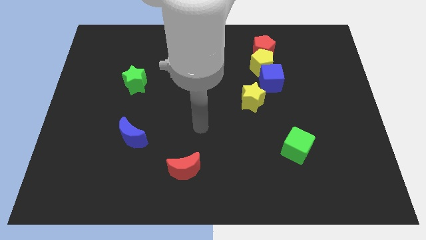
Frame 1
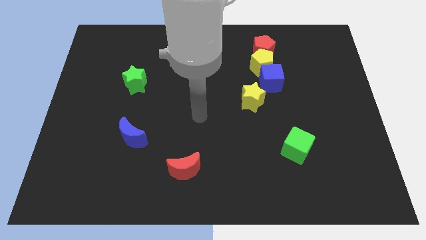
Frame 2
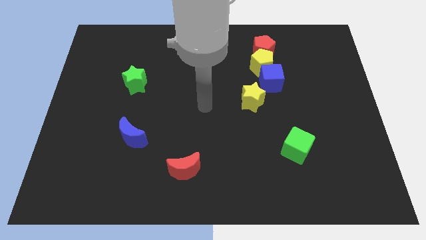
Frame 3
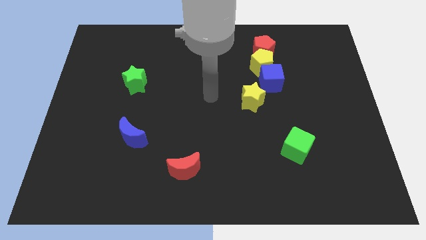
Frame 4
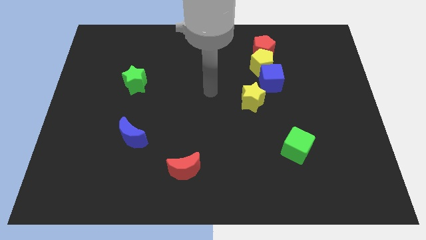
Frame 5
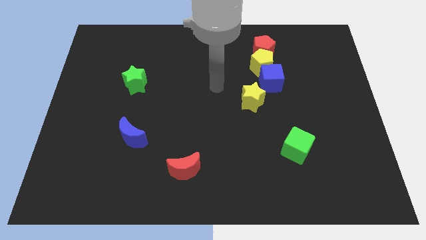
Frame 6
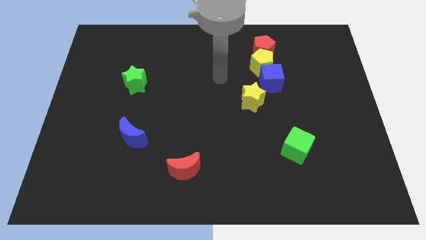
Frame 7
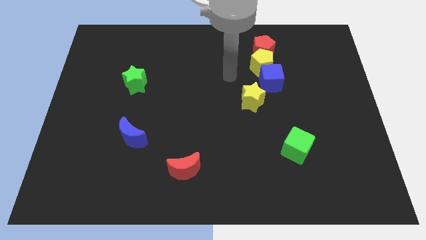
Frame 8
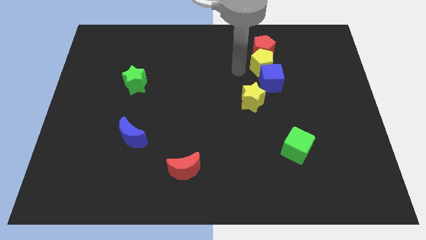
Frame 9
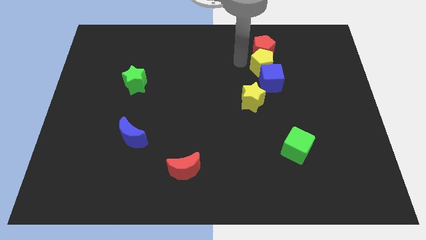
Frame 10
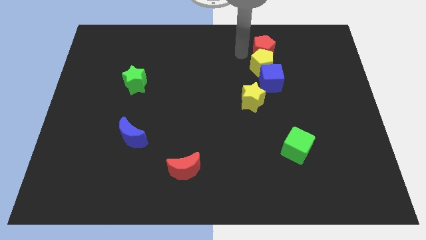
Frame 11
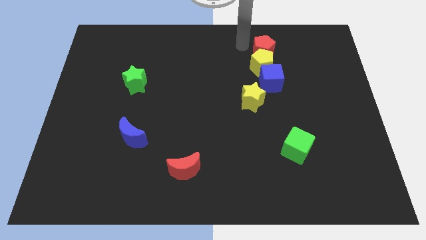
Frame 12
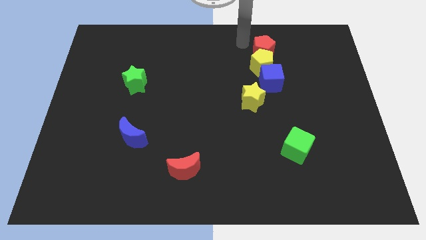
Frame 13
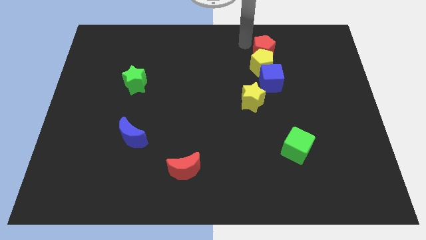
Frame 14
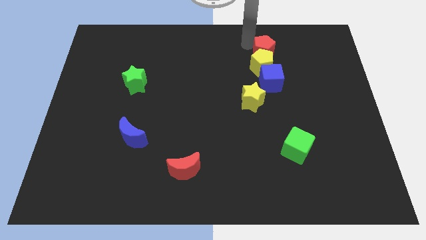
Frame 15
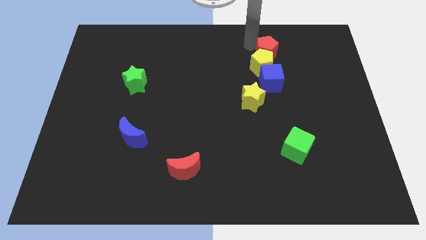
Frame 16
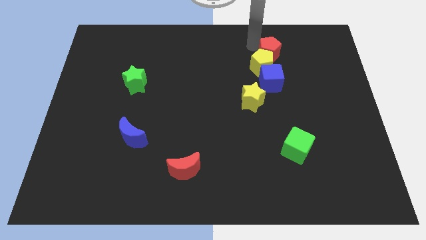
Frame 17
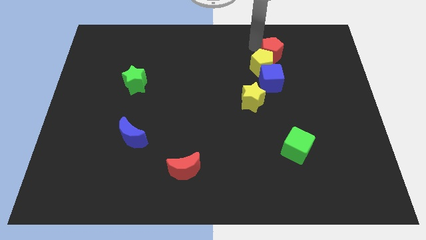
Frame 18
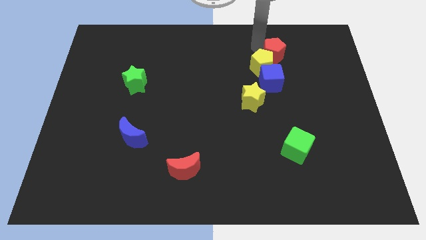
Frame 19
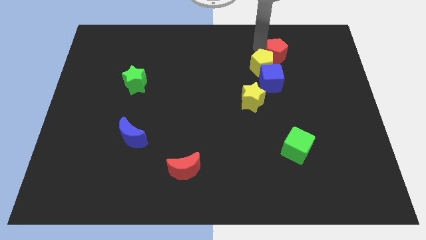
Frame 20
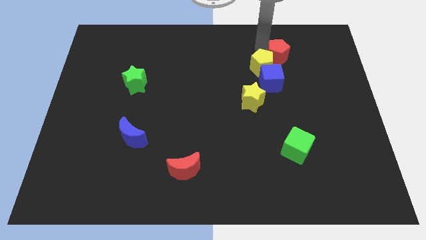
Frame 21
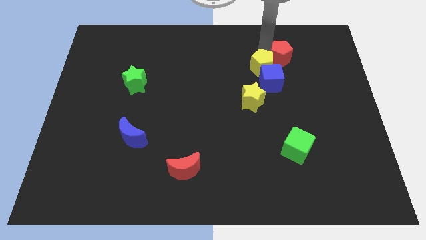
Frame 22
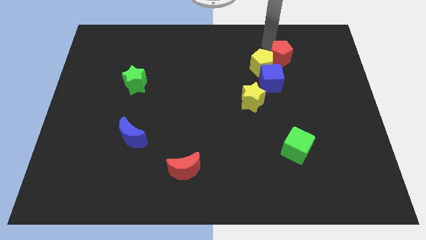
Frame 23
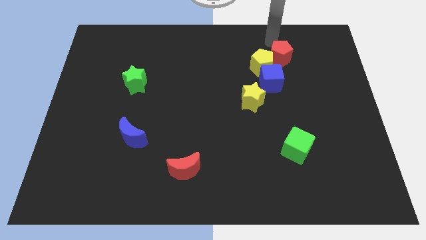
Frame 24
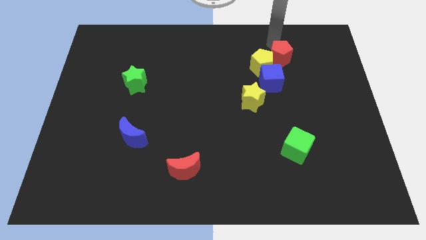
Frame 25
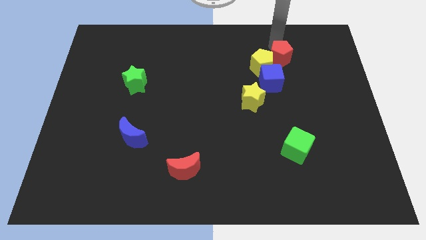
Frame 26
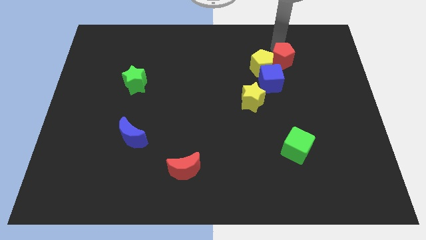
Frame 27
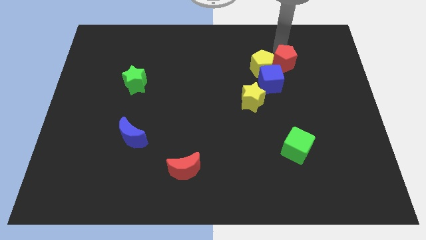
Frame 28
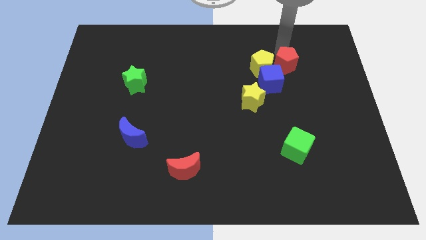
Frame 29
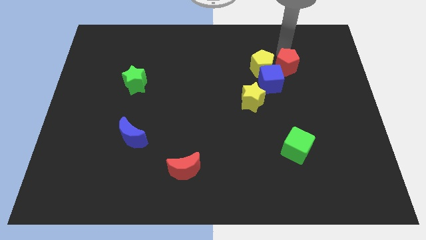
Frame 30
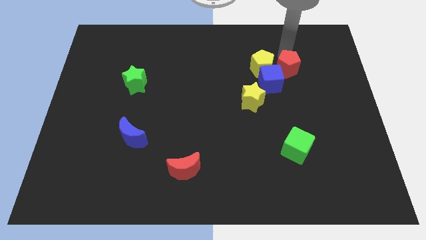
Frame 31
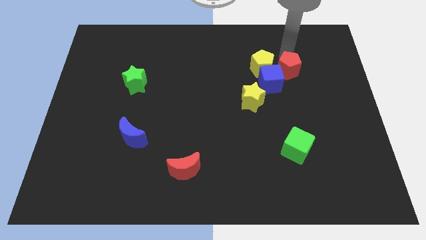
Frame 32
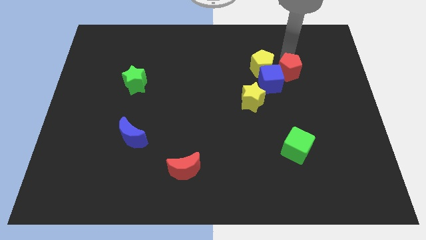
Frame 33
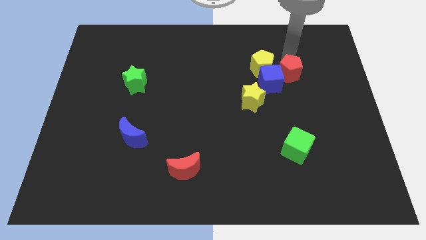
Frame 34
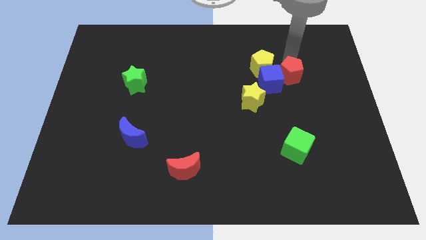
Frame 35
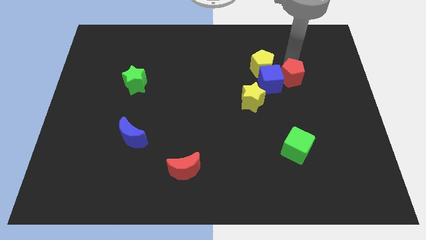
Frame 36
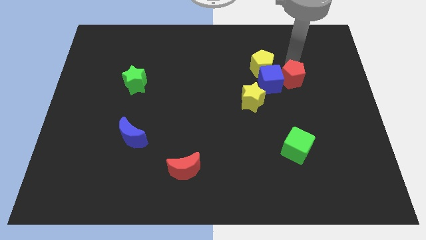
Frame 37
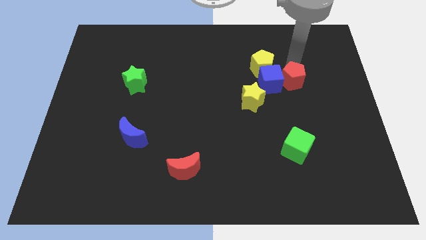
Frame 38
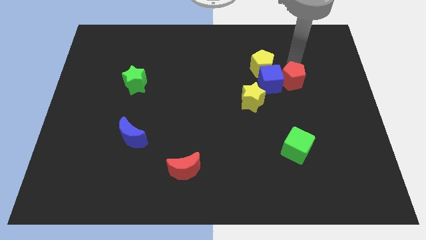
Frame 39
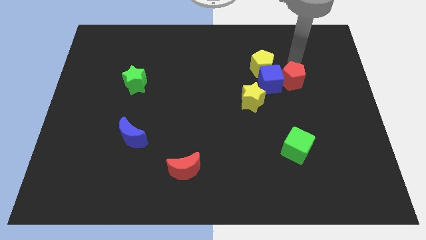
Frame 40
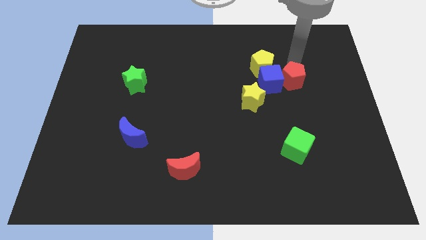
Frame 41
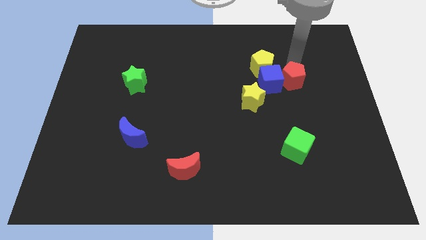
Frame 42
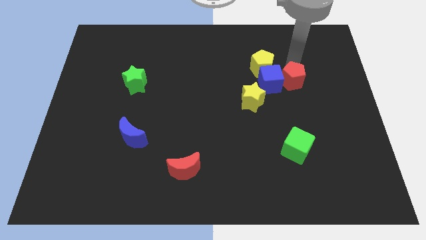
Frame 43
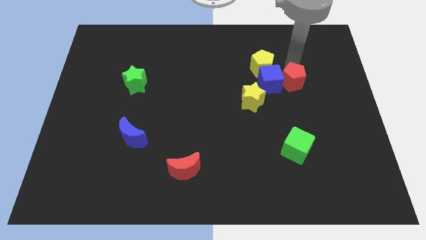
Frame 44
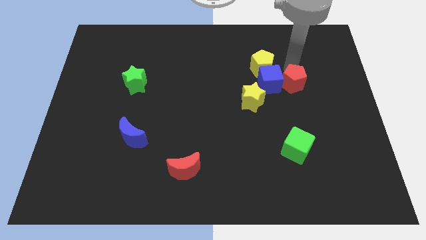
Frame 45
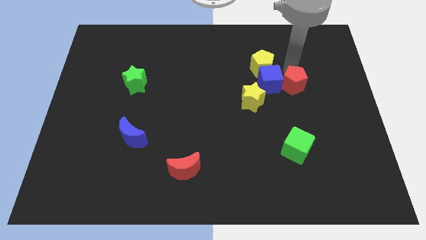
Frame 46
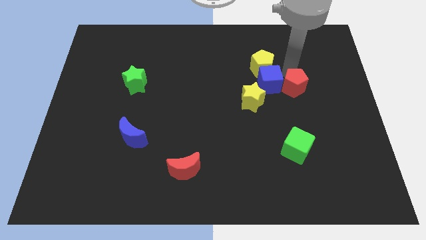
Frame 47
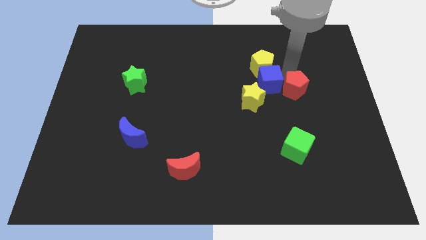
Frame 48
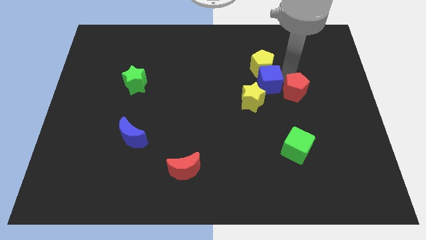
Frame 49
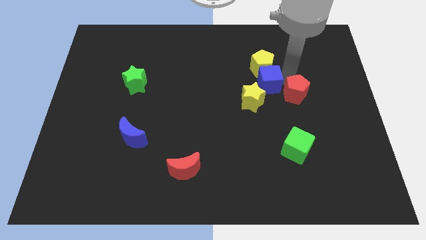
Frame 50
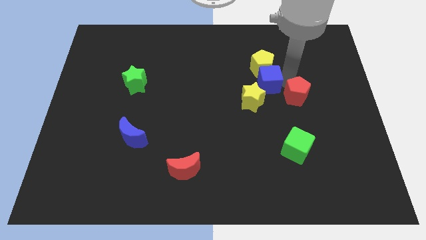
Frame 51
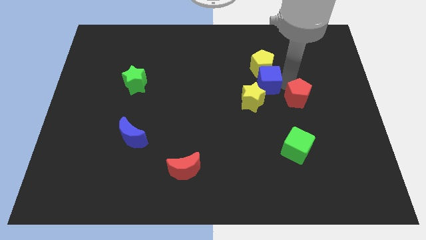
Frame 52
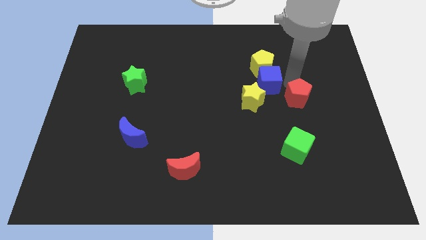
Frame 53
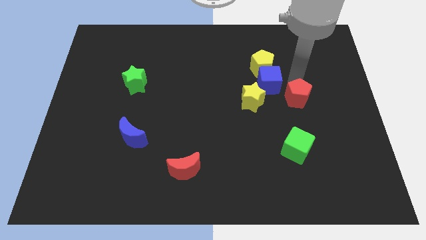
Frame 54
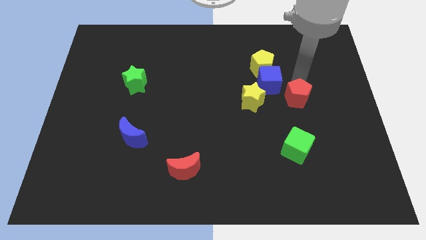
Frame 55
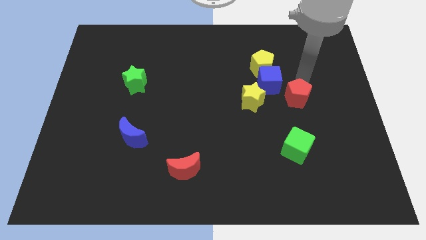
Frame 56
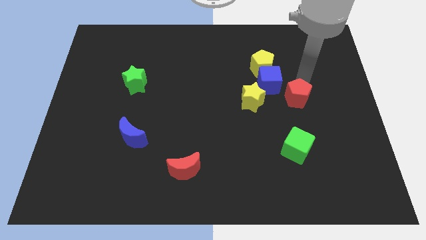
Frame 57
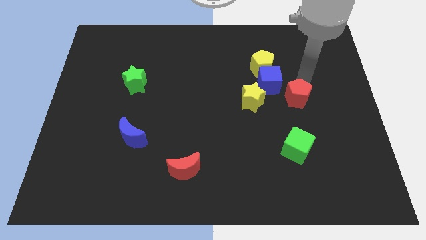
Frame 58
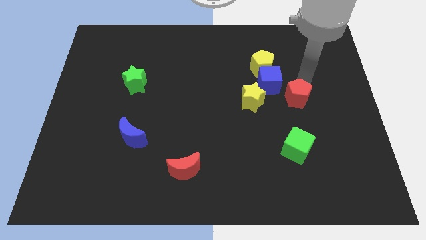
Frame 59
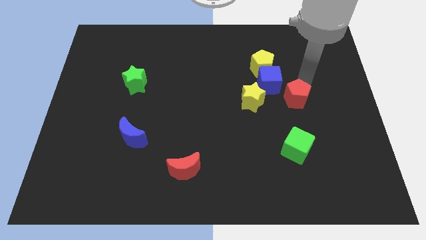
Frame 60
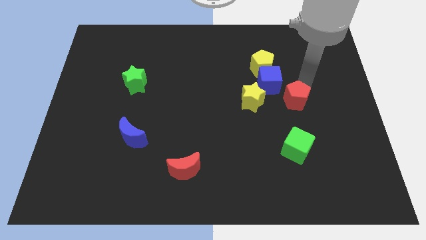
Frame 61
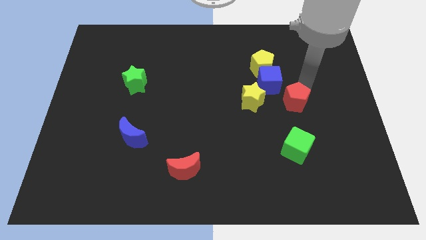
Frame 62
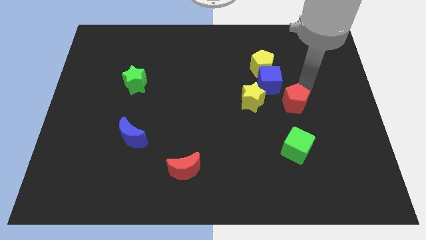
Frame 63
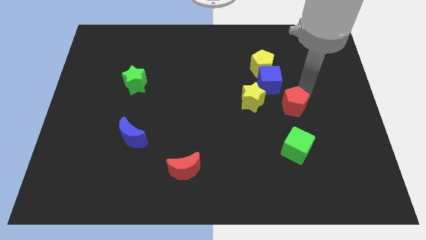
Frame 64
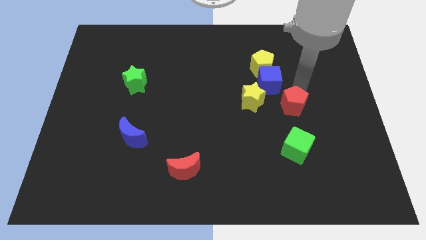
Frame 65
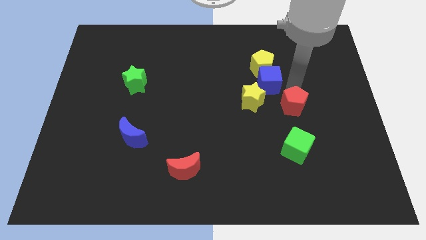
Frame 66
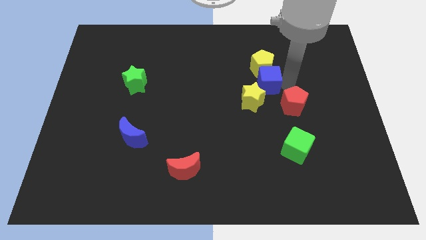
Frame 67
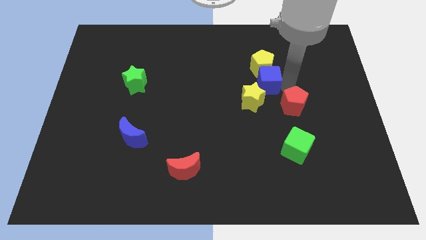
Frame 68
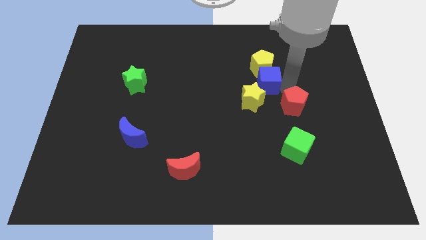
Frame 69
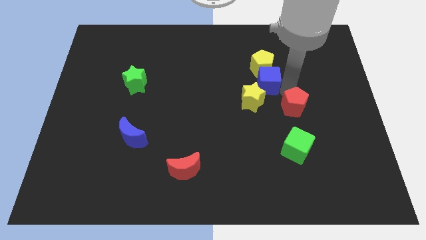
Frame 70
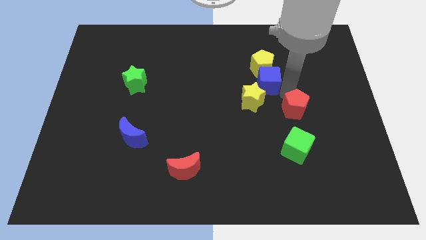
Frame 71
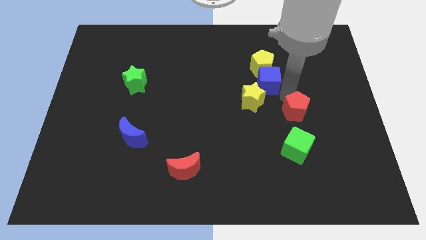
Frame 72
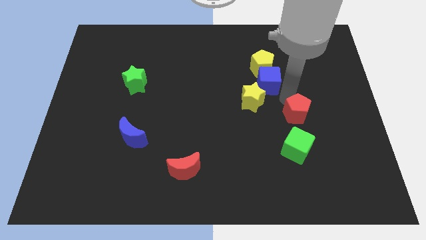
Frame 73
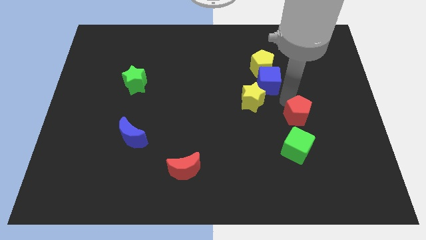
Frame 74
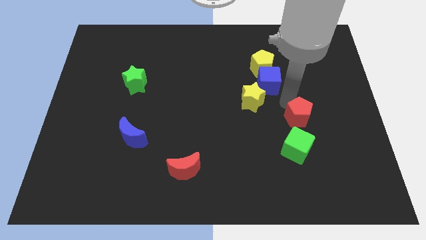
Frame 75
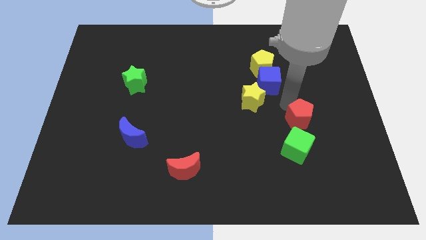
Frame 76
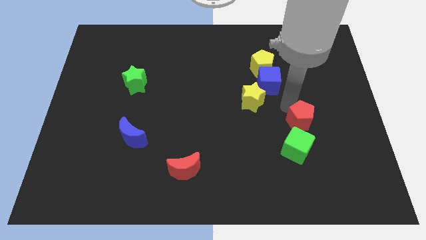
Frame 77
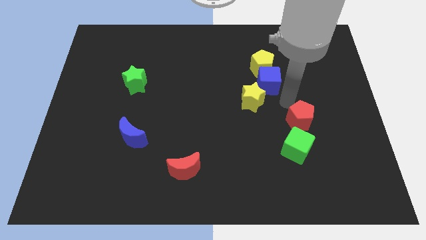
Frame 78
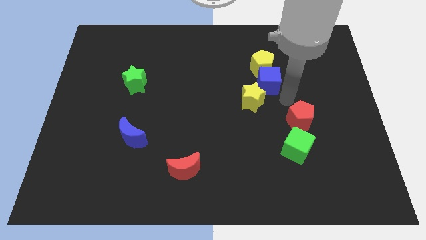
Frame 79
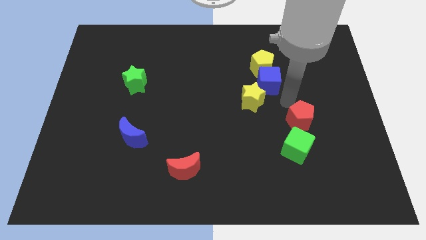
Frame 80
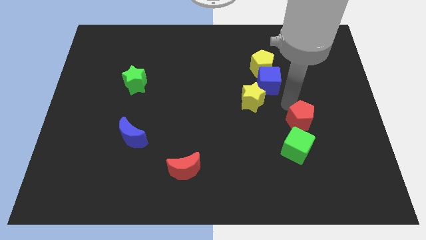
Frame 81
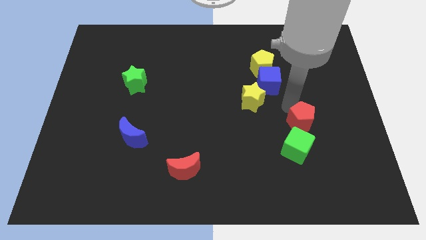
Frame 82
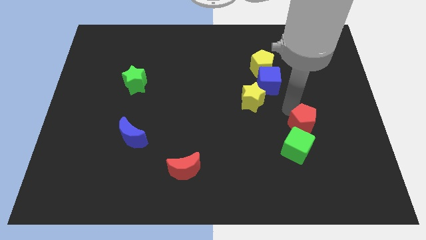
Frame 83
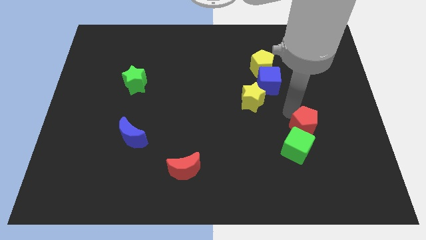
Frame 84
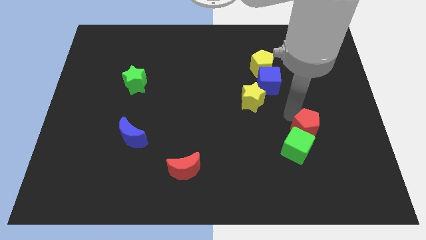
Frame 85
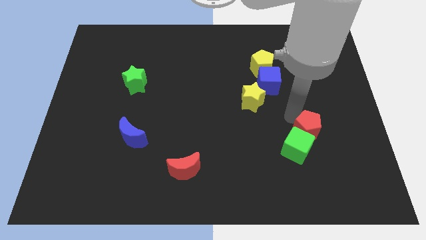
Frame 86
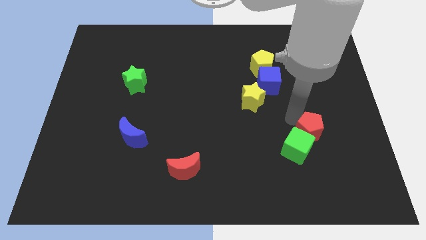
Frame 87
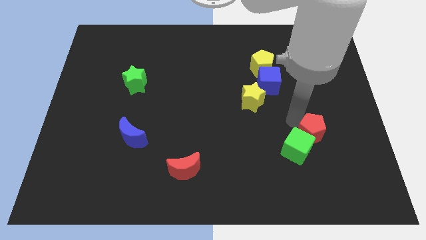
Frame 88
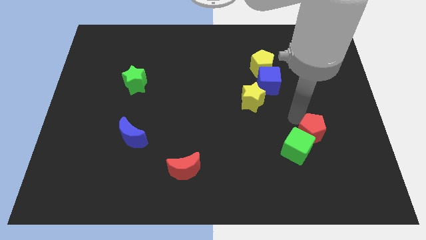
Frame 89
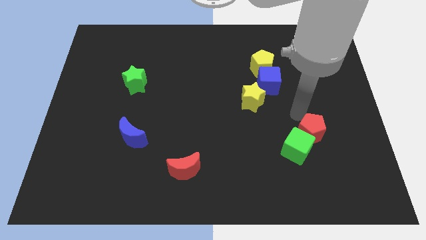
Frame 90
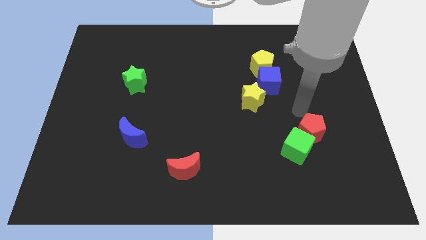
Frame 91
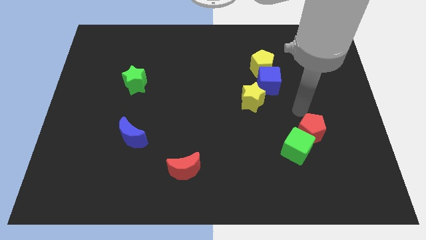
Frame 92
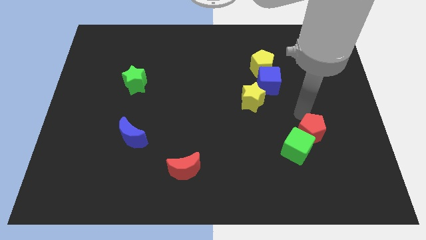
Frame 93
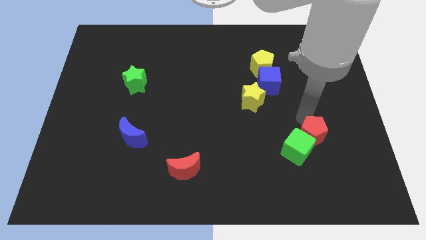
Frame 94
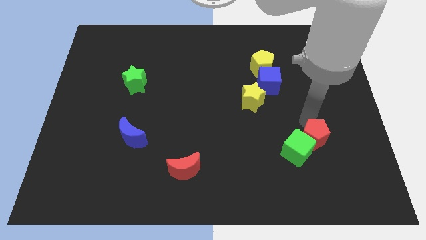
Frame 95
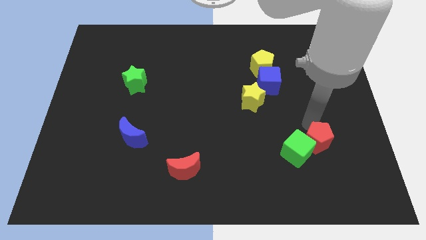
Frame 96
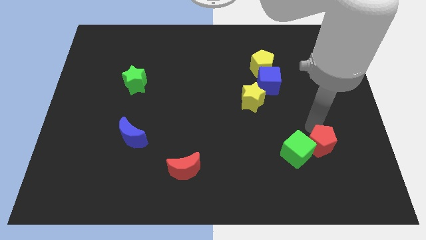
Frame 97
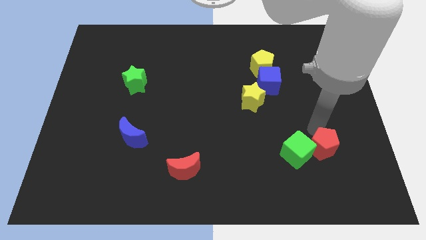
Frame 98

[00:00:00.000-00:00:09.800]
move the red pentagon to the bottom right side of the green cube
